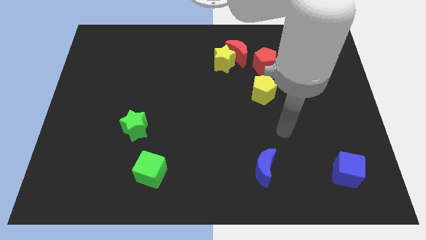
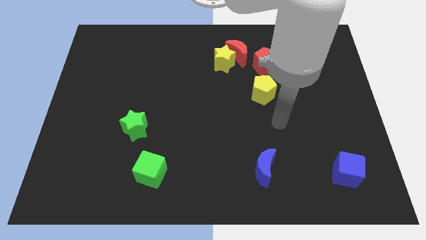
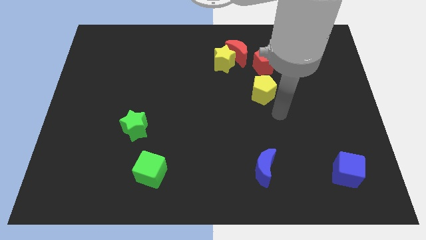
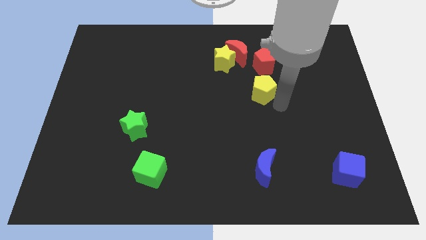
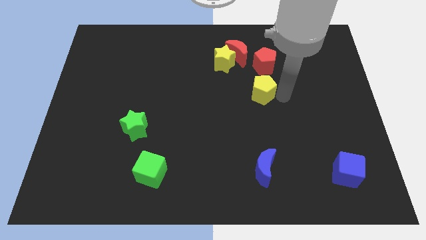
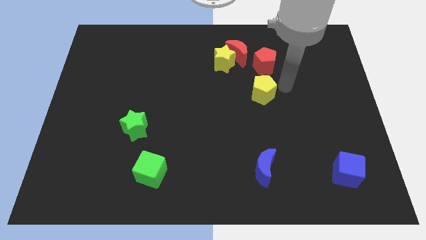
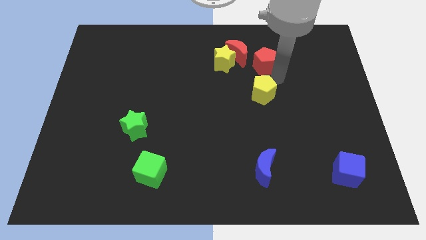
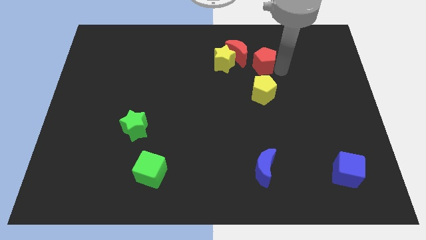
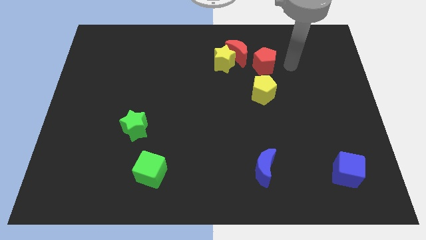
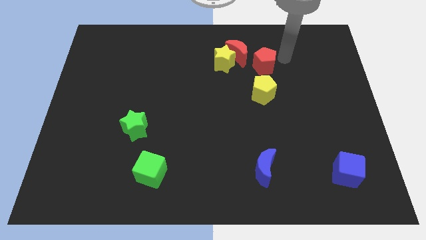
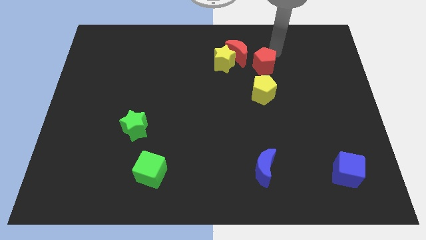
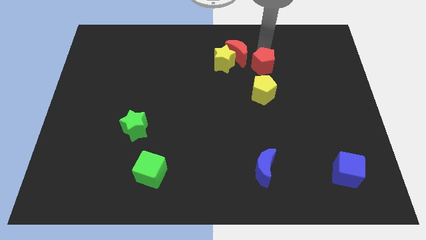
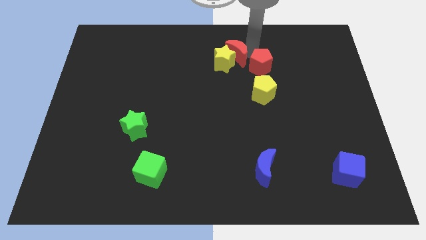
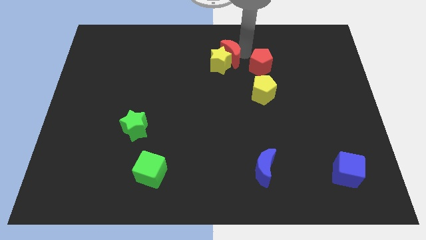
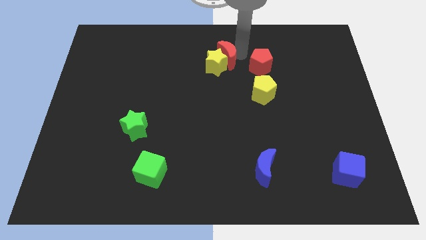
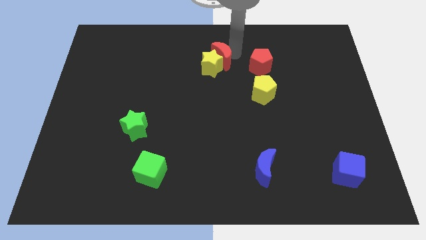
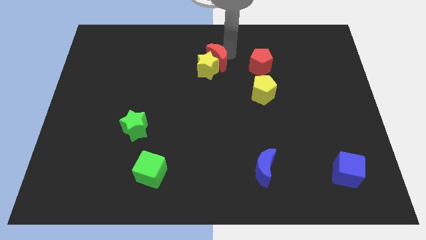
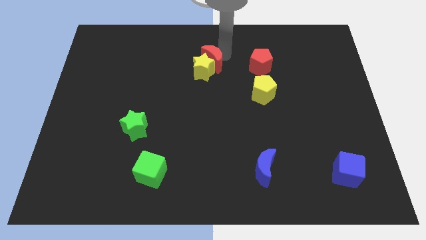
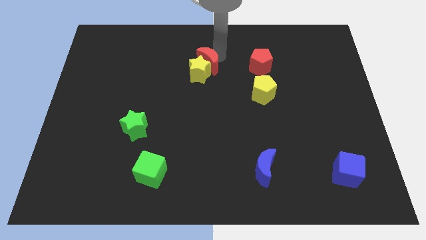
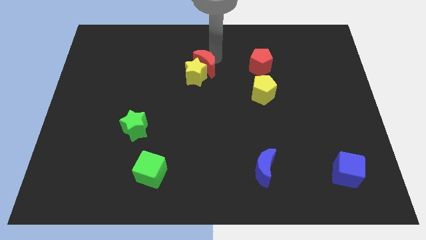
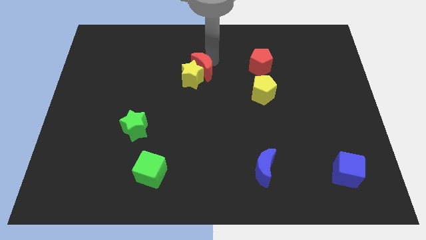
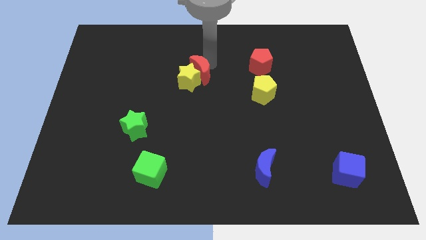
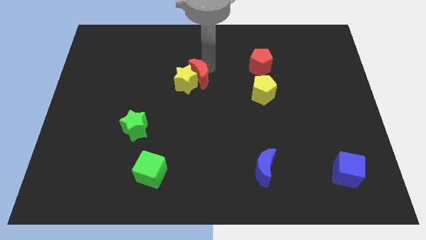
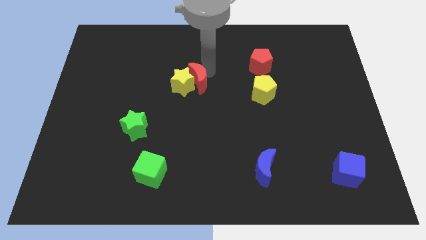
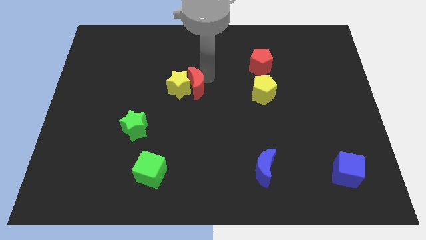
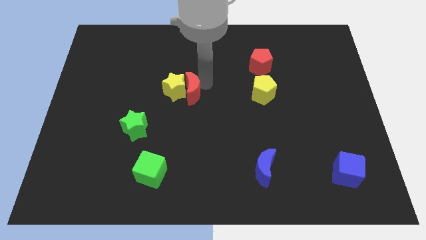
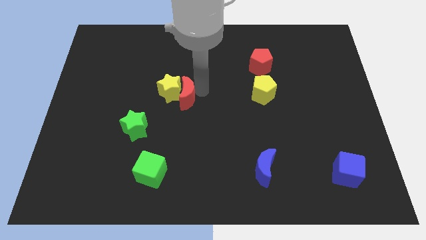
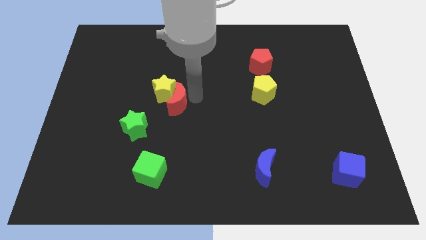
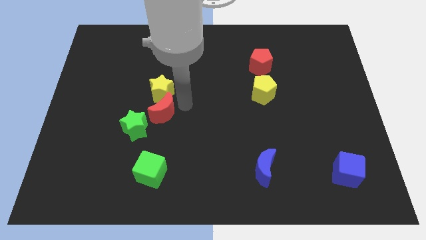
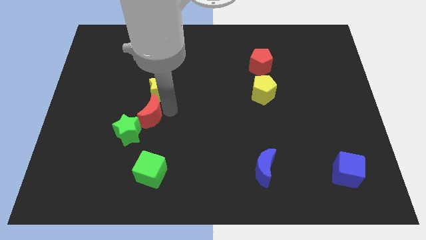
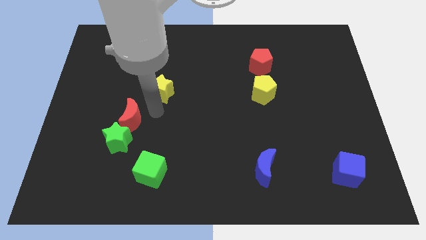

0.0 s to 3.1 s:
pull the yellow star apart from the red moon

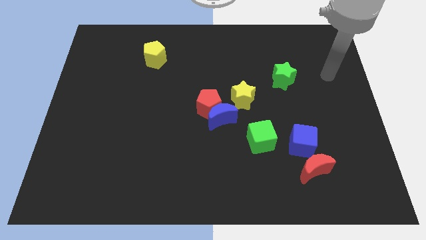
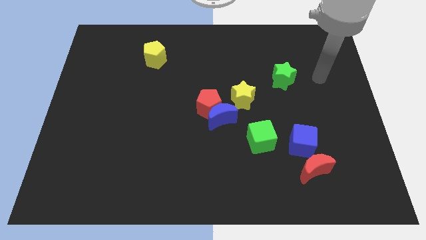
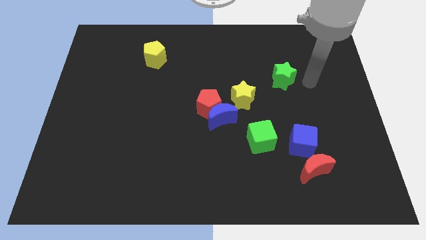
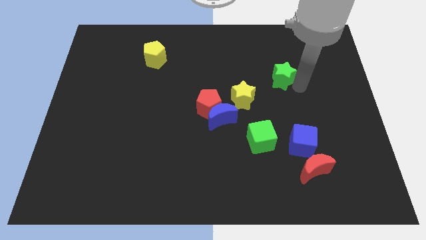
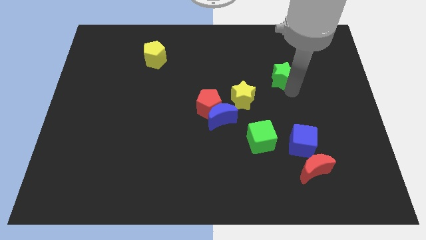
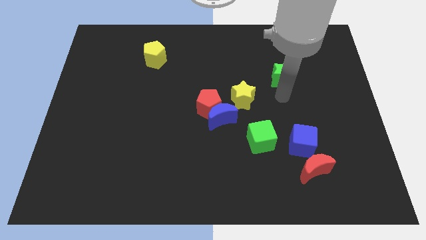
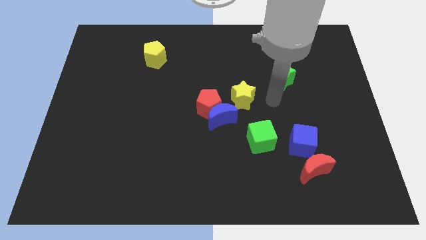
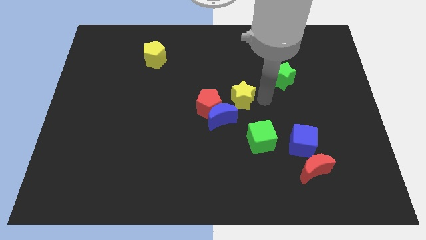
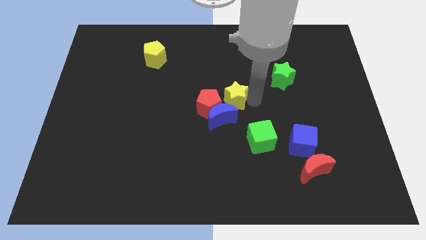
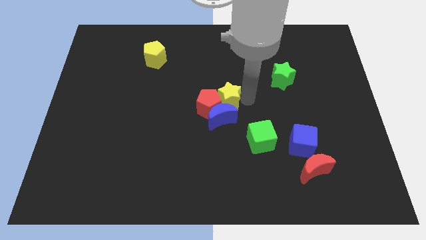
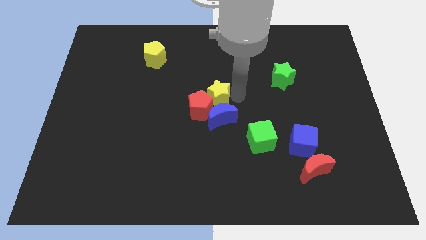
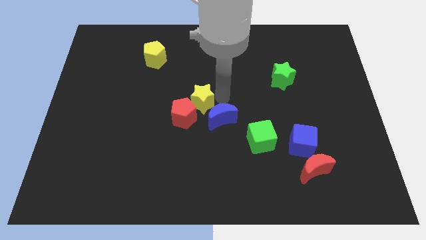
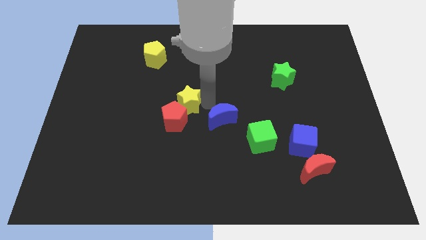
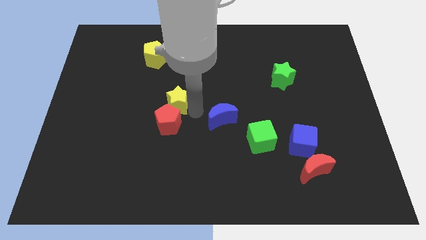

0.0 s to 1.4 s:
move the blue moon away from the red pentagon and yellow star

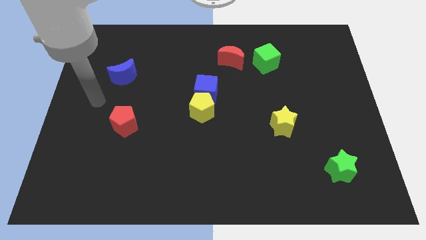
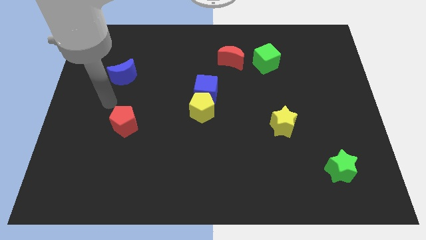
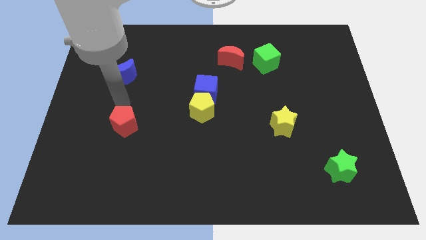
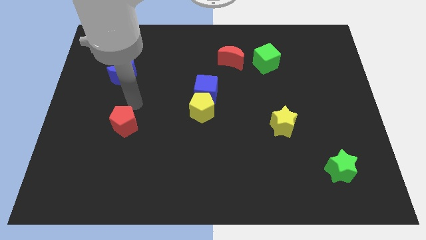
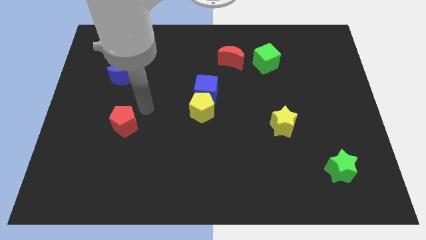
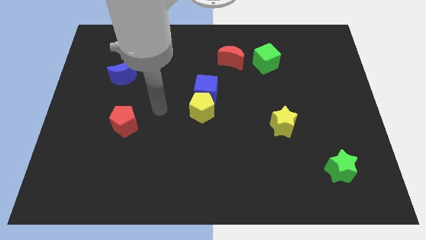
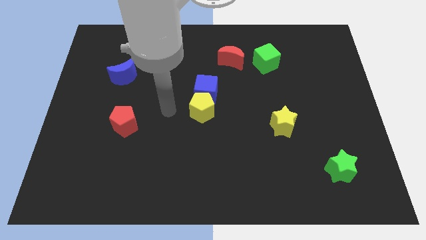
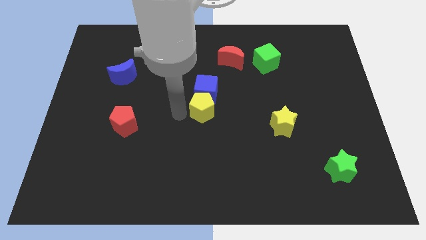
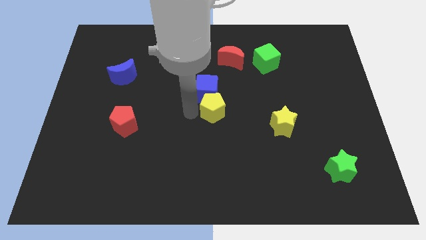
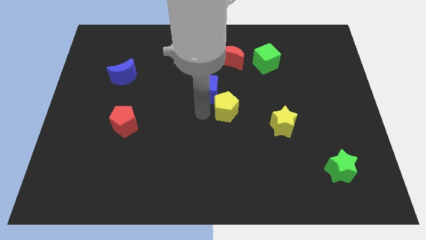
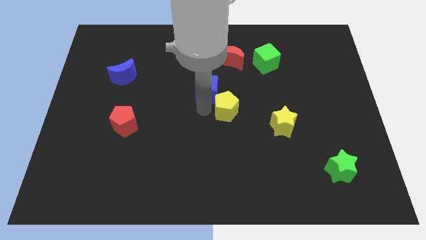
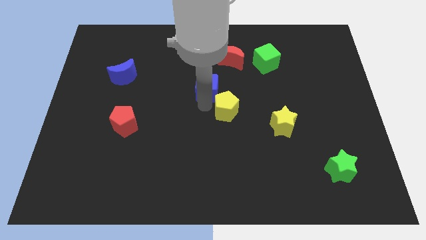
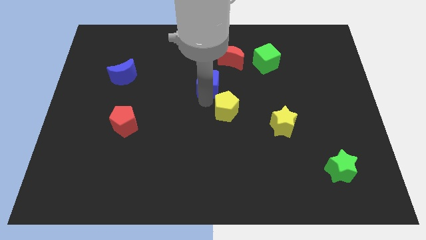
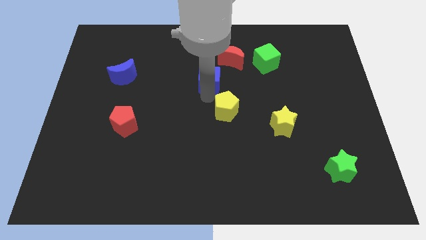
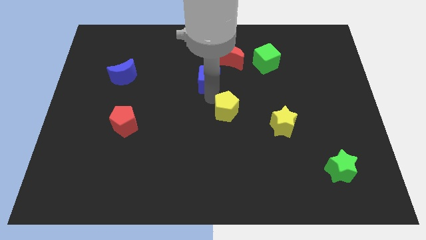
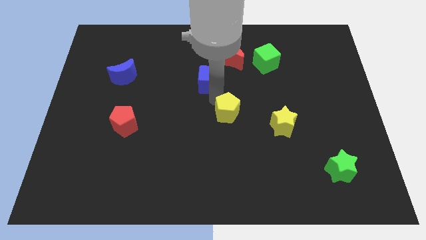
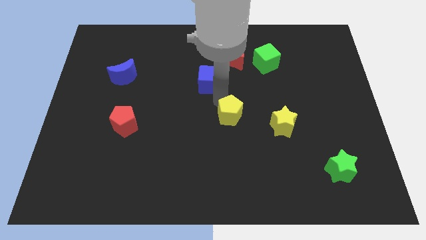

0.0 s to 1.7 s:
pull the blue cube apart from the yellow pentagon

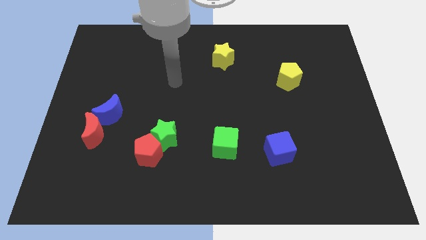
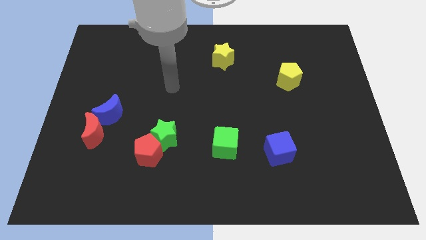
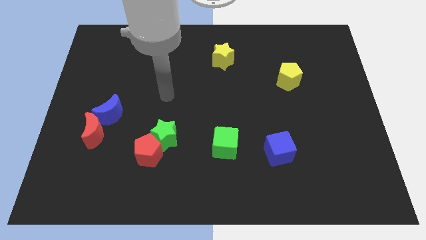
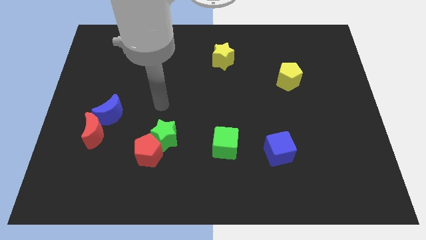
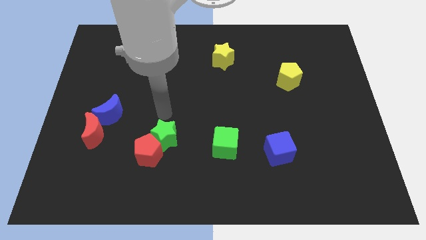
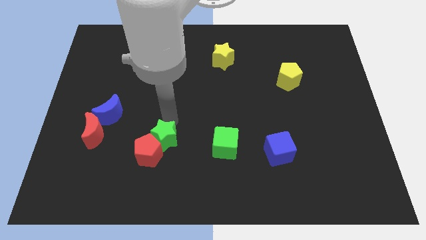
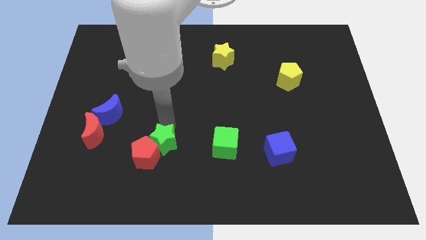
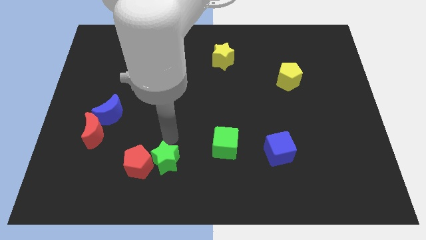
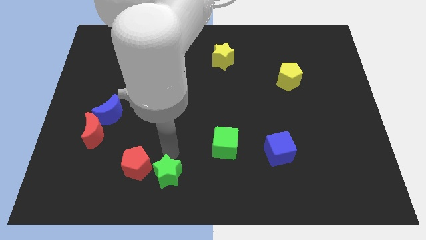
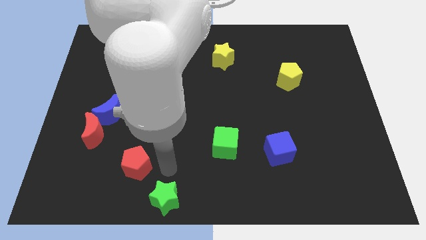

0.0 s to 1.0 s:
pull the red pentagon apart from the green star

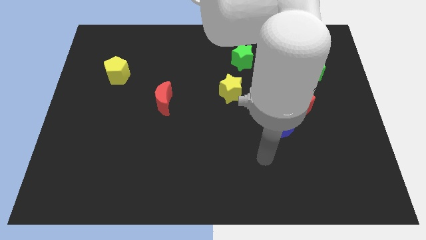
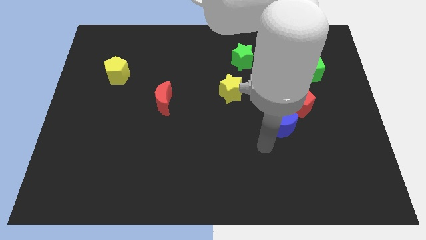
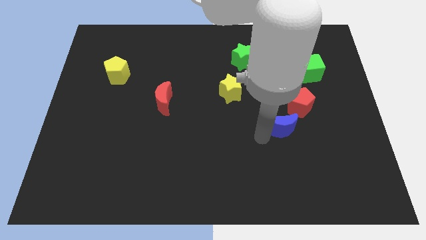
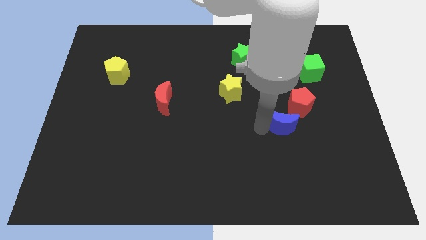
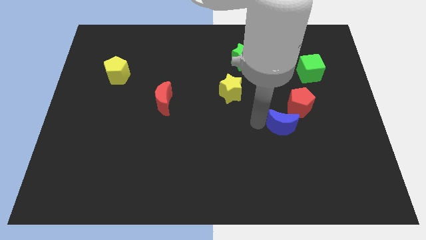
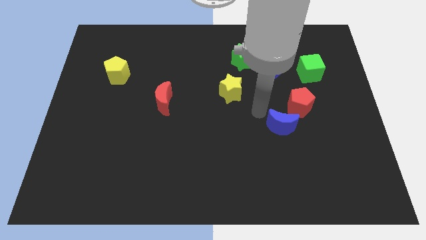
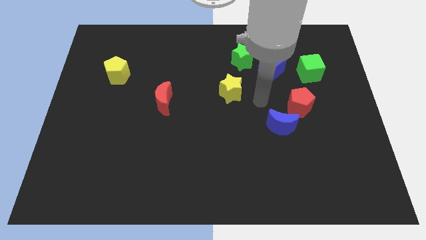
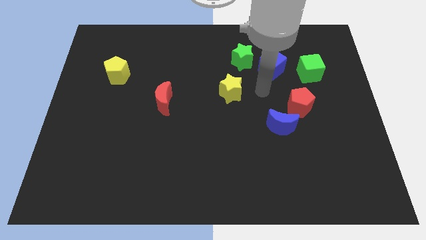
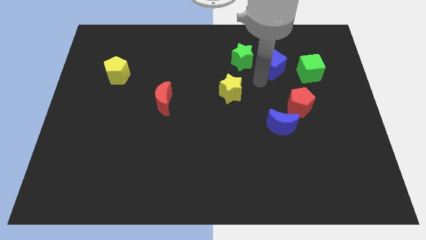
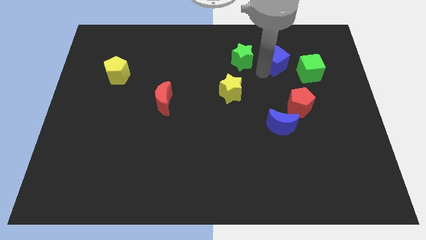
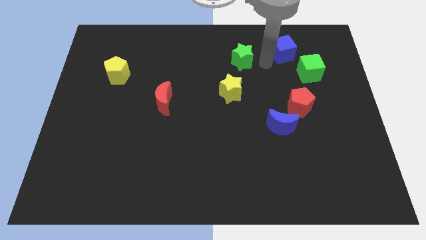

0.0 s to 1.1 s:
separate the green star from the blue cube

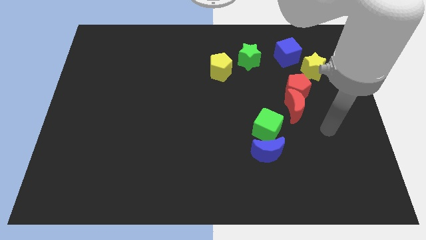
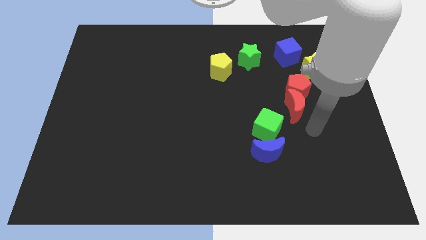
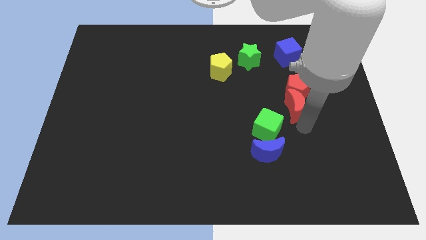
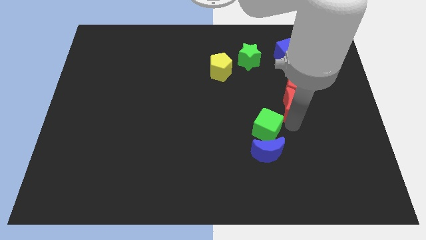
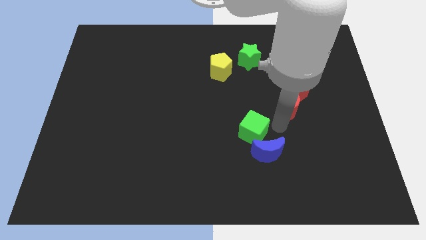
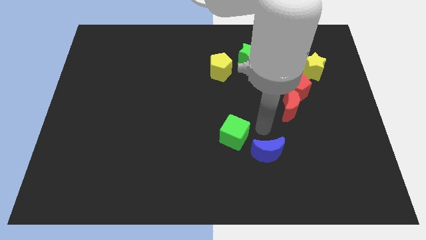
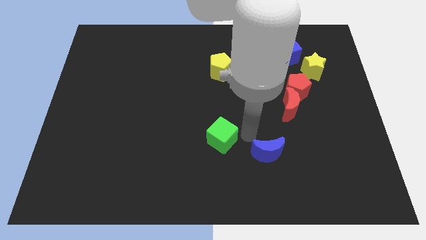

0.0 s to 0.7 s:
pull the blue moon apart from the green cube
